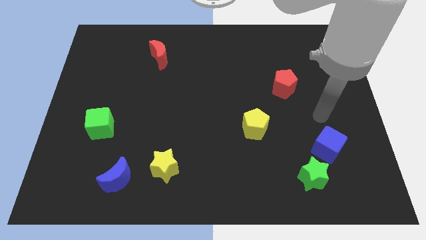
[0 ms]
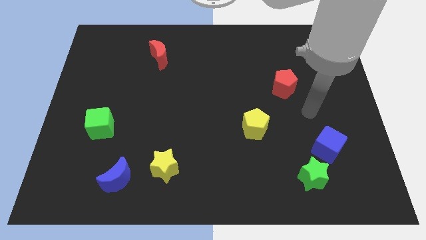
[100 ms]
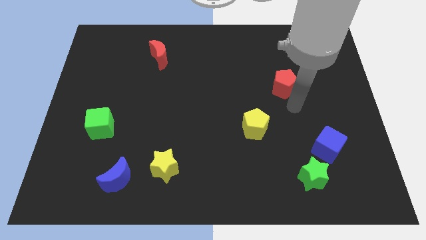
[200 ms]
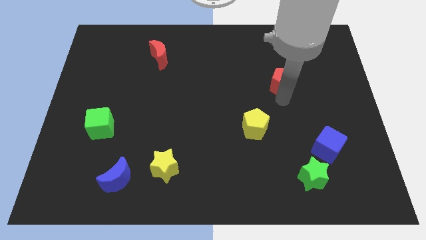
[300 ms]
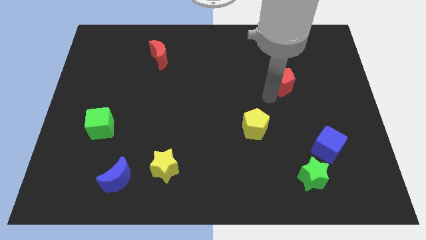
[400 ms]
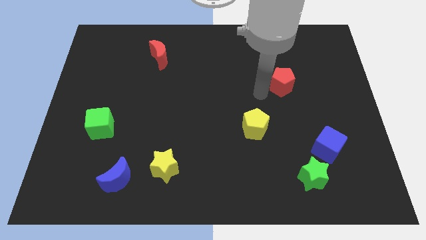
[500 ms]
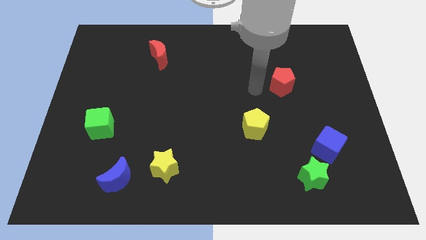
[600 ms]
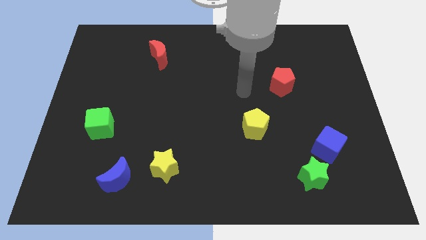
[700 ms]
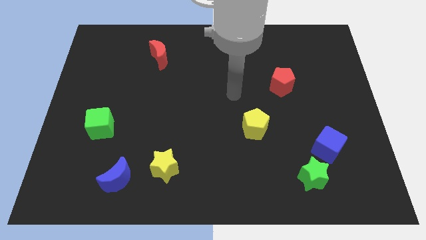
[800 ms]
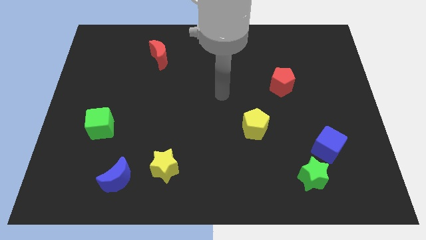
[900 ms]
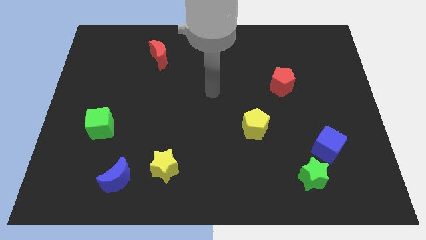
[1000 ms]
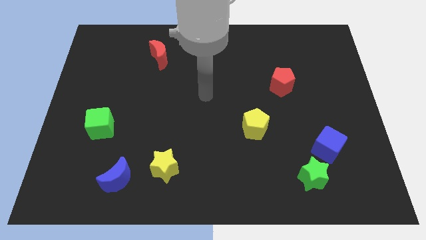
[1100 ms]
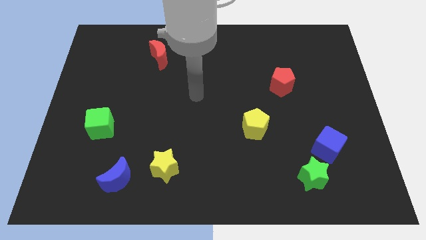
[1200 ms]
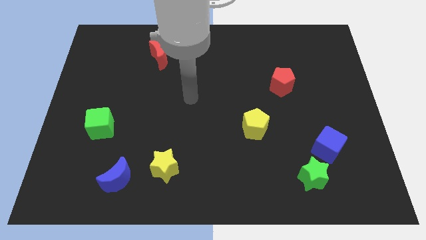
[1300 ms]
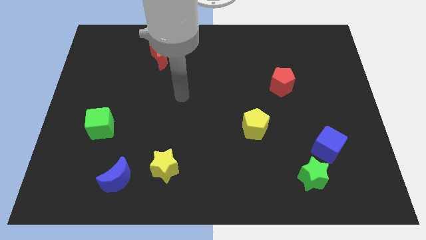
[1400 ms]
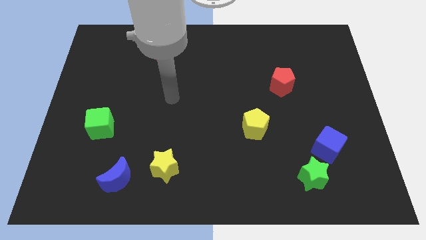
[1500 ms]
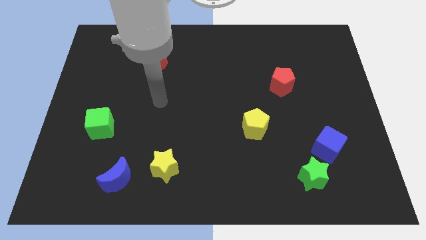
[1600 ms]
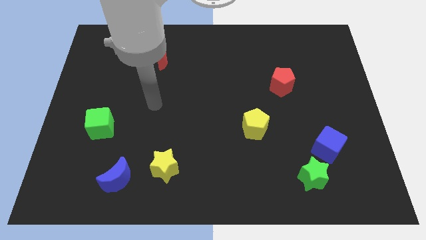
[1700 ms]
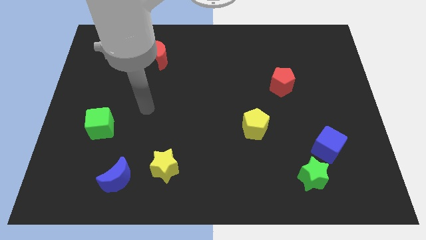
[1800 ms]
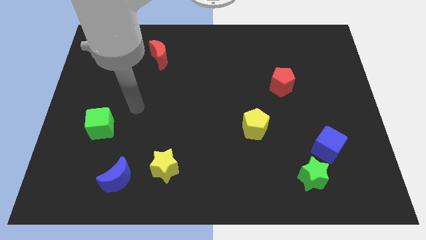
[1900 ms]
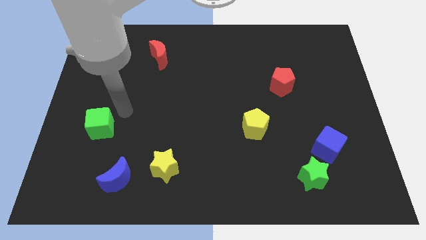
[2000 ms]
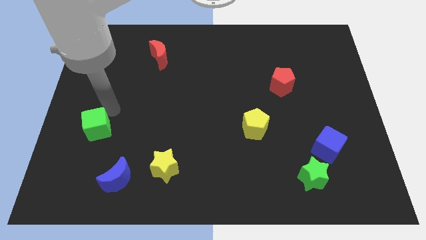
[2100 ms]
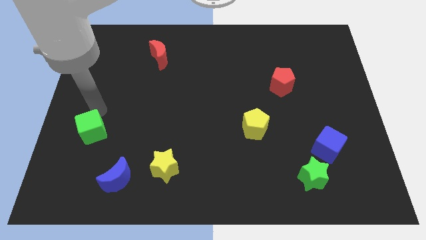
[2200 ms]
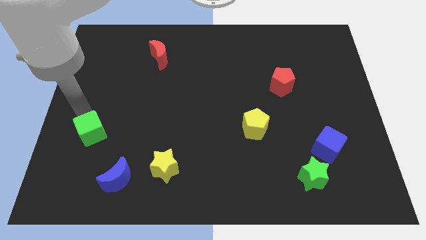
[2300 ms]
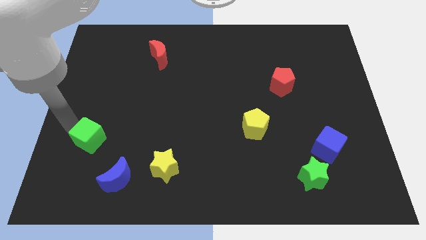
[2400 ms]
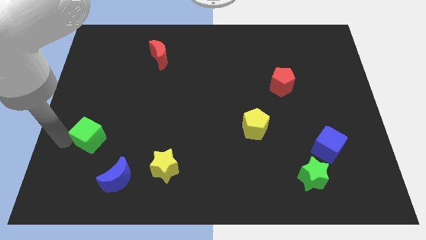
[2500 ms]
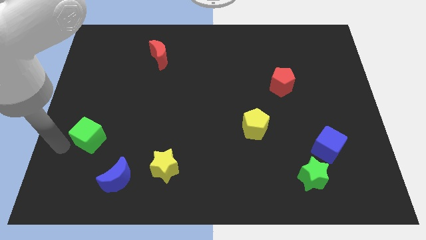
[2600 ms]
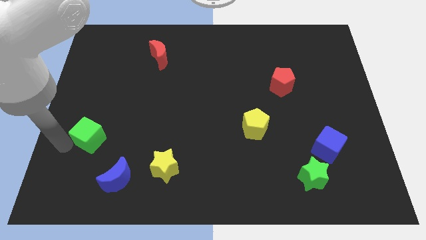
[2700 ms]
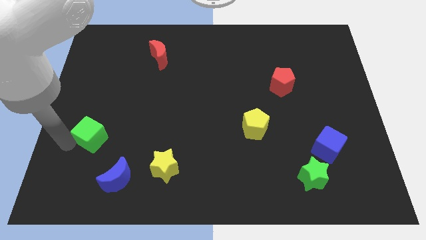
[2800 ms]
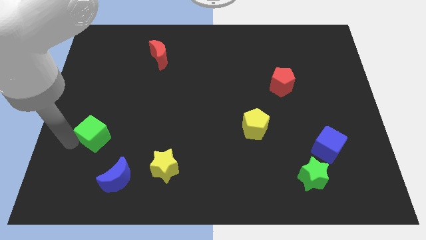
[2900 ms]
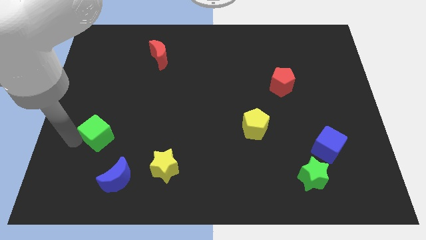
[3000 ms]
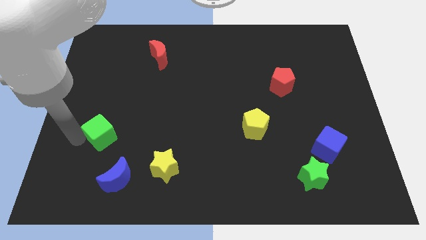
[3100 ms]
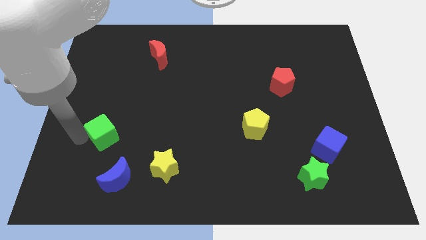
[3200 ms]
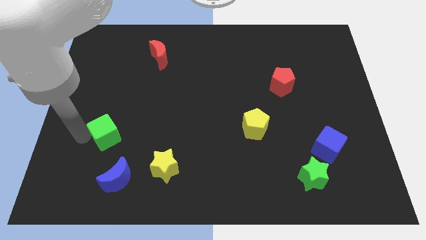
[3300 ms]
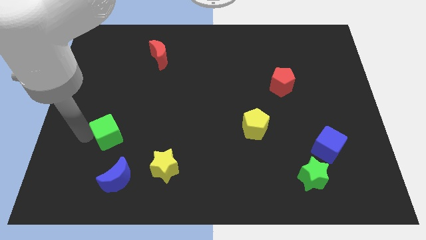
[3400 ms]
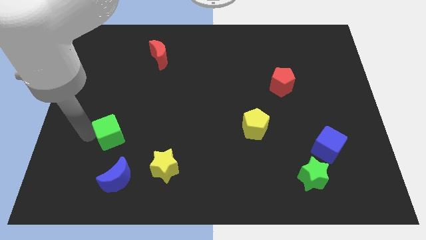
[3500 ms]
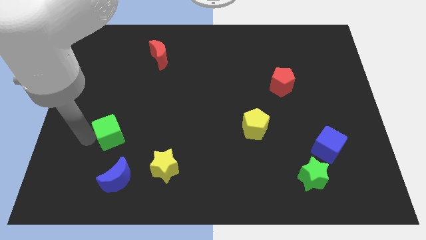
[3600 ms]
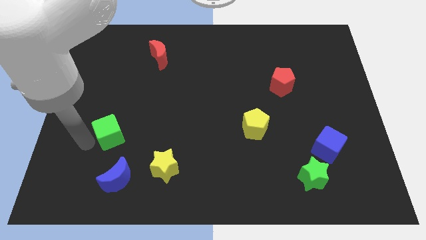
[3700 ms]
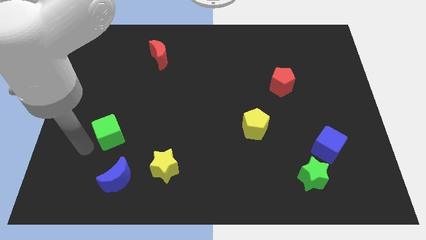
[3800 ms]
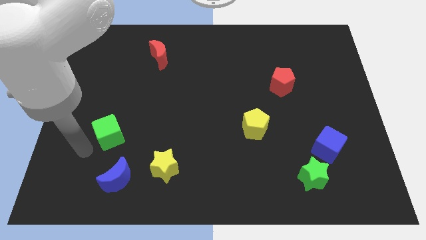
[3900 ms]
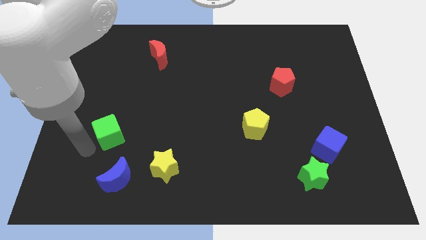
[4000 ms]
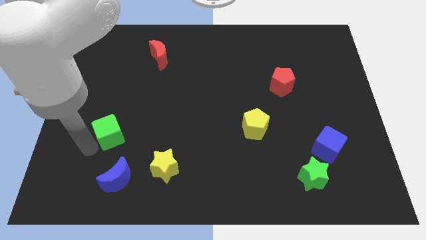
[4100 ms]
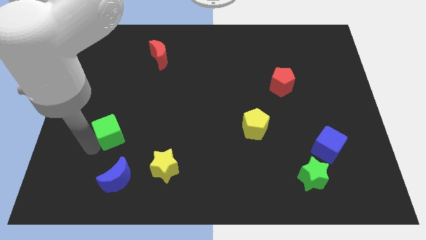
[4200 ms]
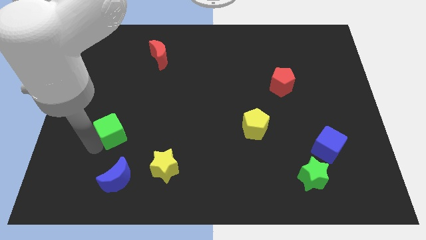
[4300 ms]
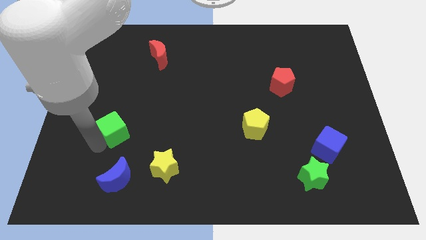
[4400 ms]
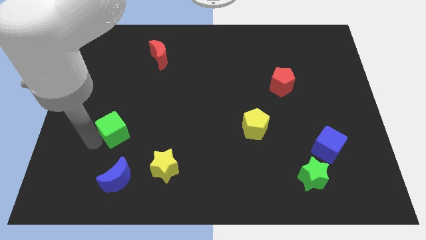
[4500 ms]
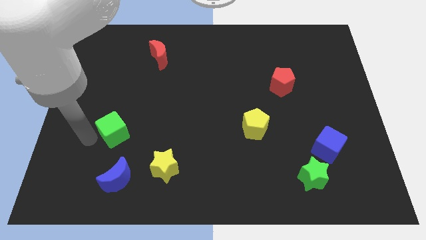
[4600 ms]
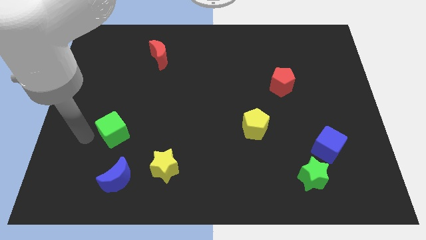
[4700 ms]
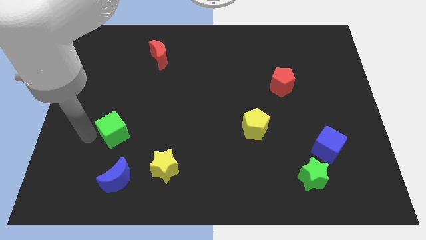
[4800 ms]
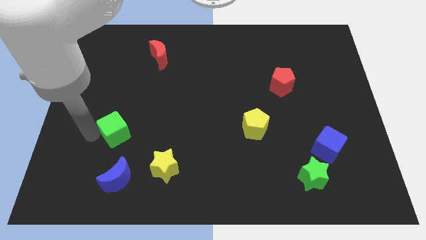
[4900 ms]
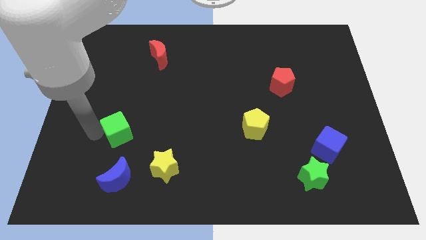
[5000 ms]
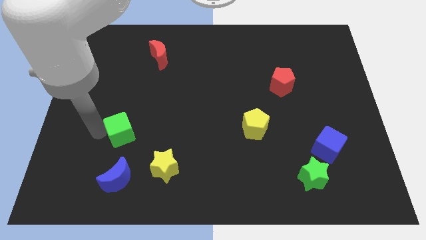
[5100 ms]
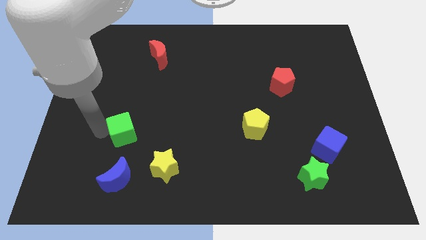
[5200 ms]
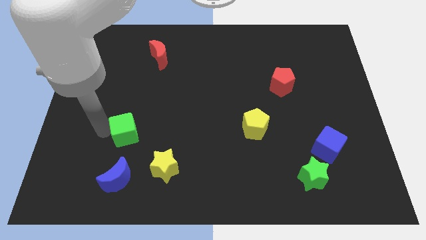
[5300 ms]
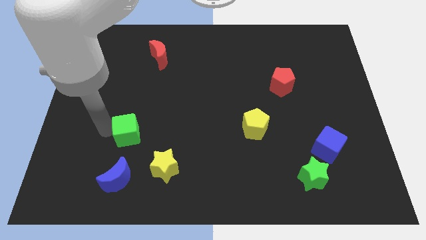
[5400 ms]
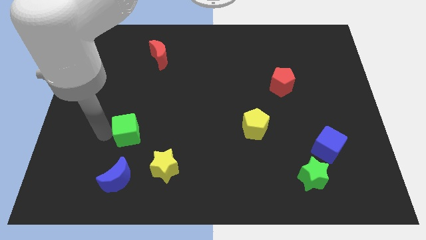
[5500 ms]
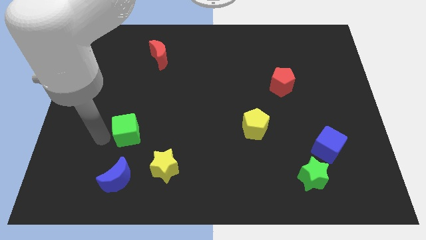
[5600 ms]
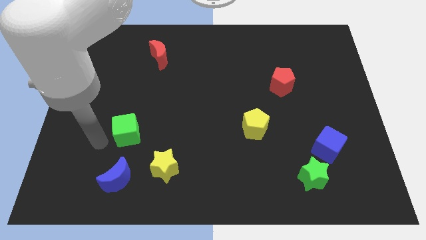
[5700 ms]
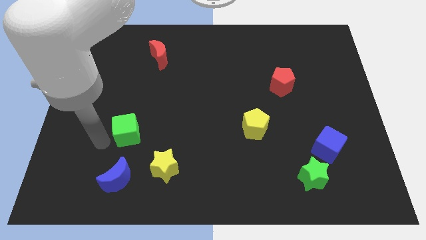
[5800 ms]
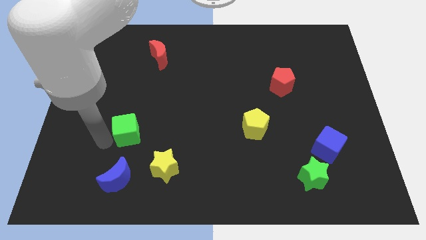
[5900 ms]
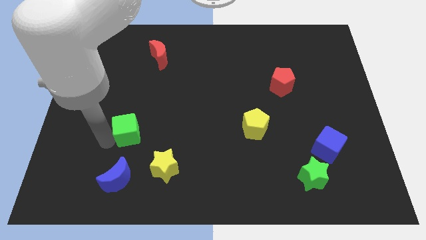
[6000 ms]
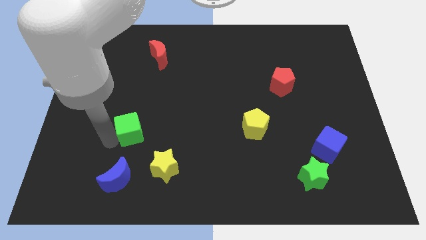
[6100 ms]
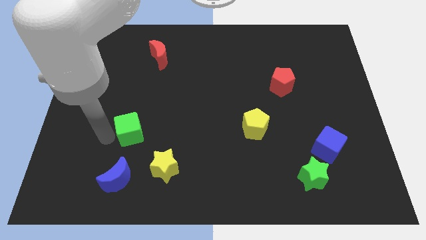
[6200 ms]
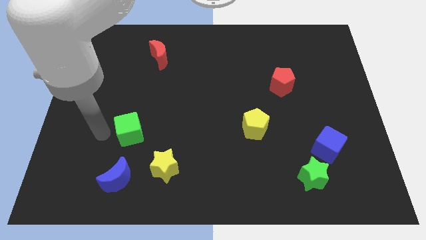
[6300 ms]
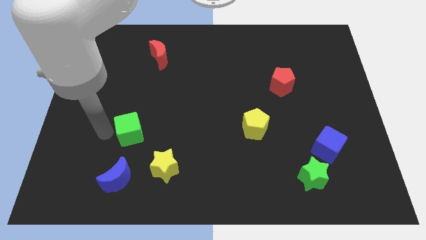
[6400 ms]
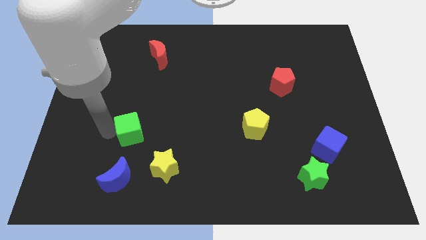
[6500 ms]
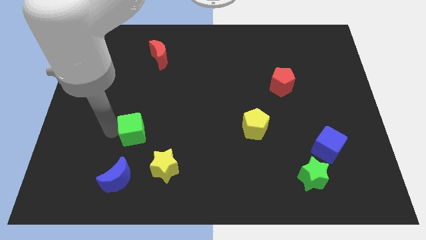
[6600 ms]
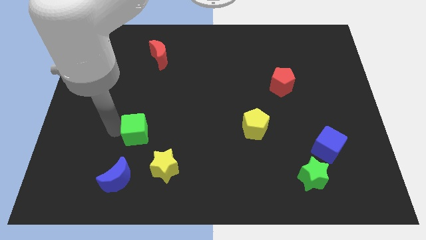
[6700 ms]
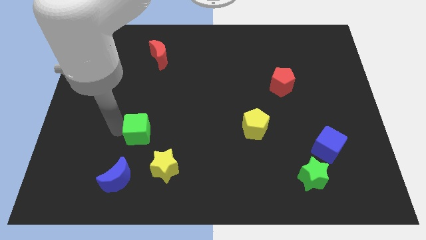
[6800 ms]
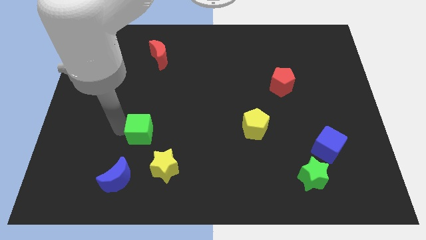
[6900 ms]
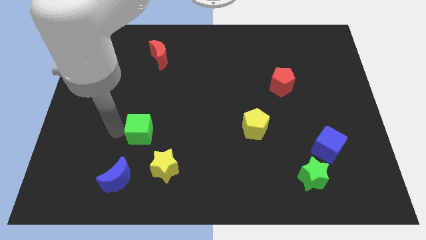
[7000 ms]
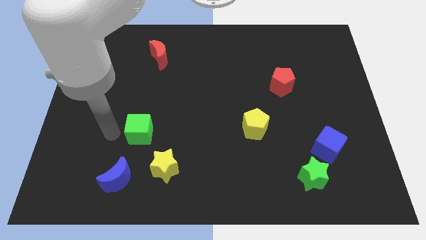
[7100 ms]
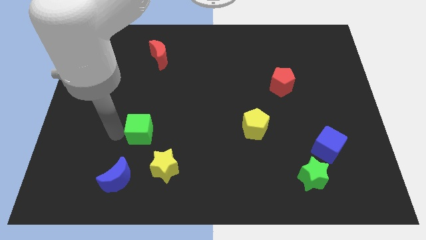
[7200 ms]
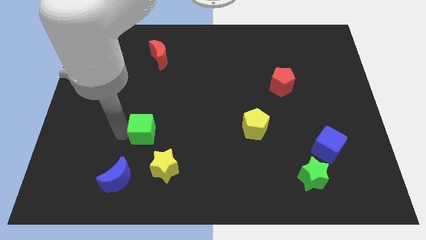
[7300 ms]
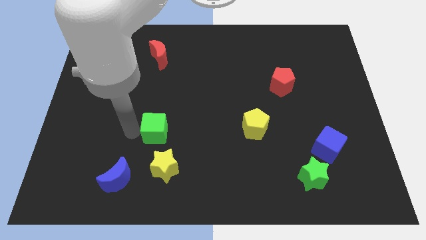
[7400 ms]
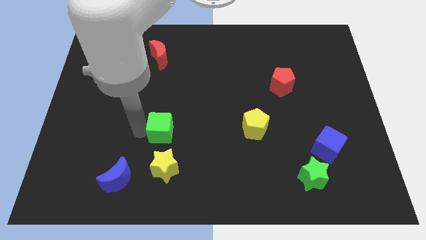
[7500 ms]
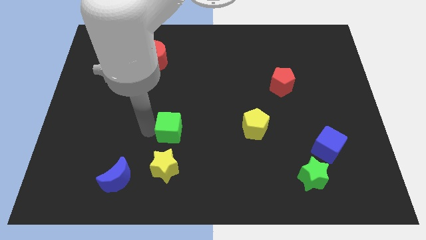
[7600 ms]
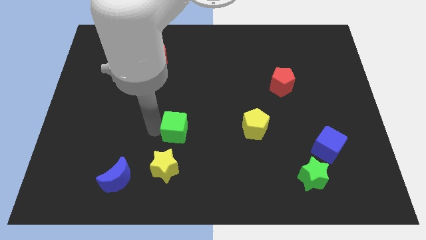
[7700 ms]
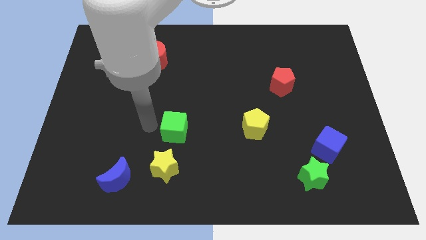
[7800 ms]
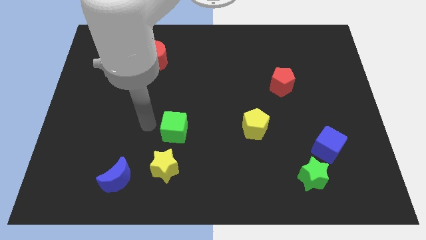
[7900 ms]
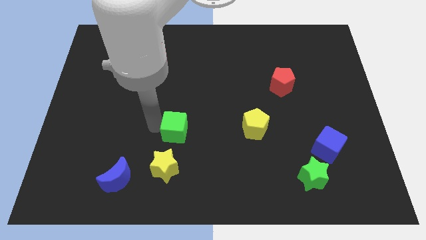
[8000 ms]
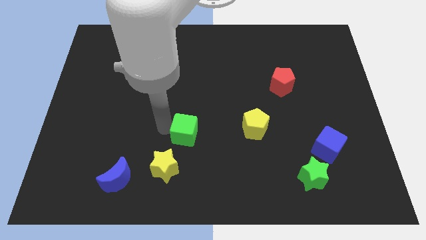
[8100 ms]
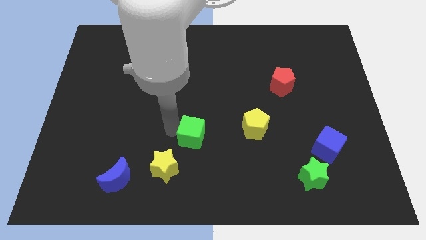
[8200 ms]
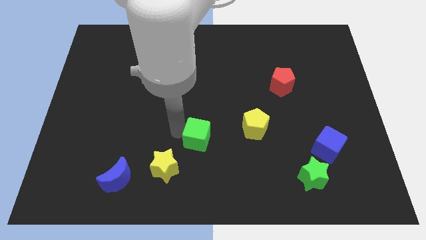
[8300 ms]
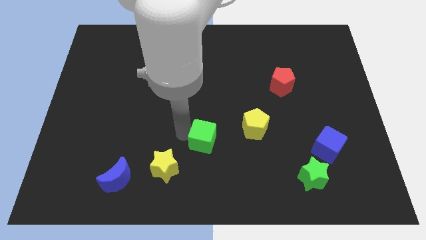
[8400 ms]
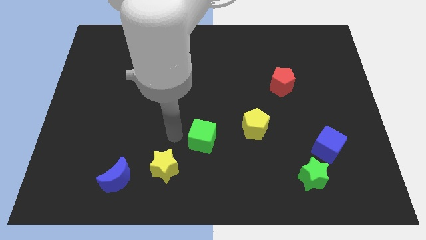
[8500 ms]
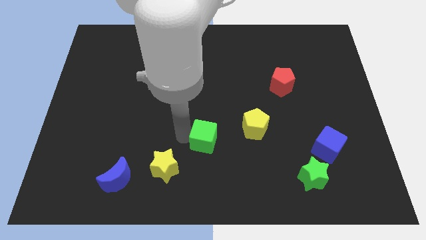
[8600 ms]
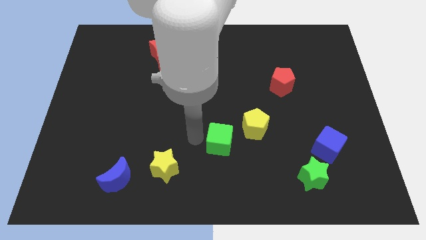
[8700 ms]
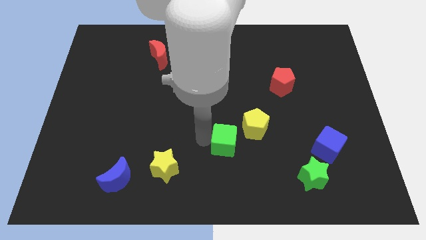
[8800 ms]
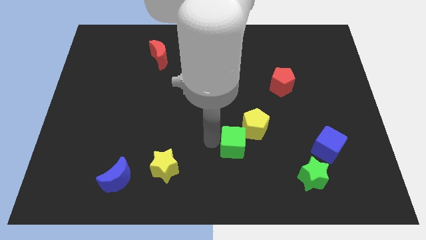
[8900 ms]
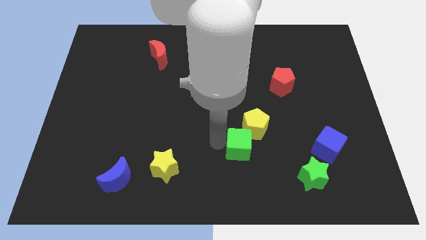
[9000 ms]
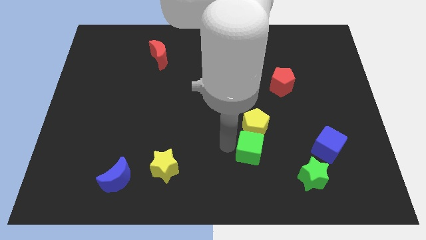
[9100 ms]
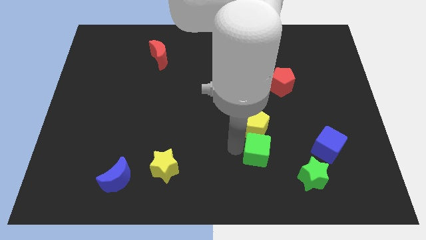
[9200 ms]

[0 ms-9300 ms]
put the green cube left of the blue cube
